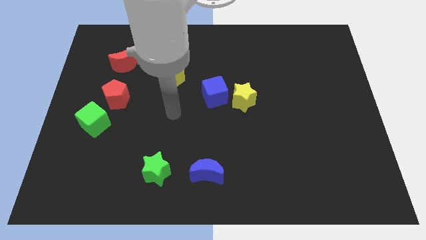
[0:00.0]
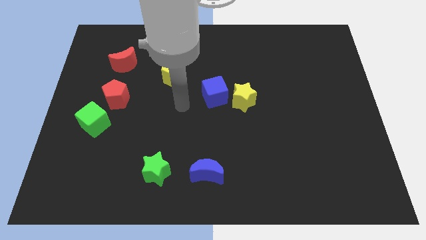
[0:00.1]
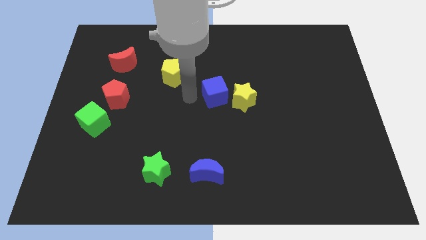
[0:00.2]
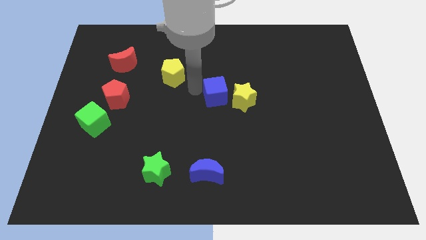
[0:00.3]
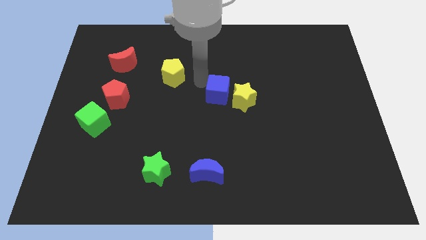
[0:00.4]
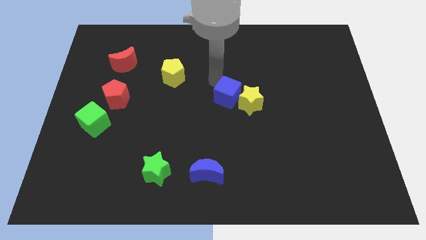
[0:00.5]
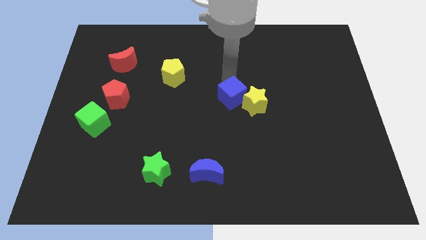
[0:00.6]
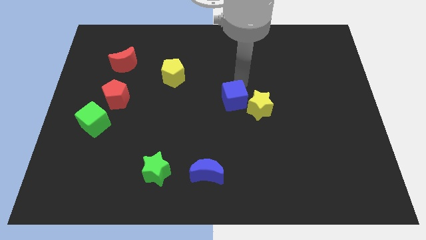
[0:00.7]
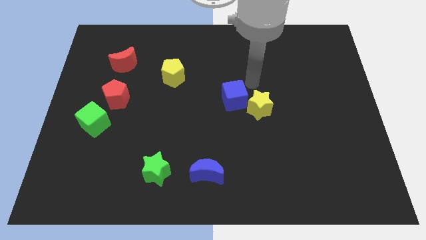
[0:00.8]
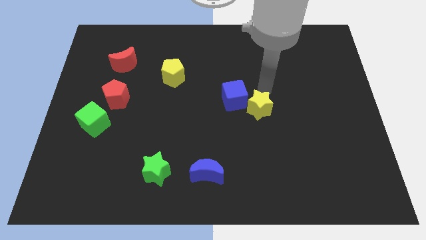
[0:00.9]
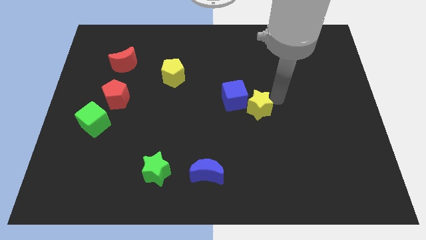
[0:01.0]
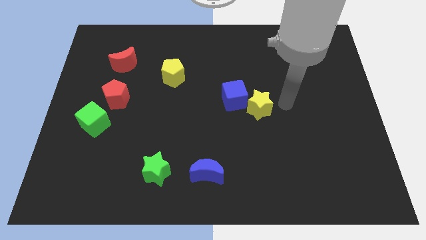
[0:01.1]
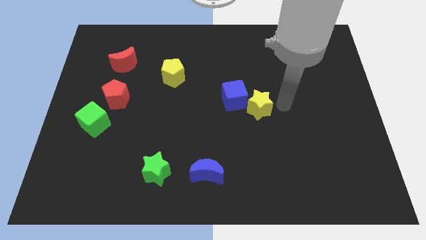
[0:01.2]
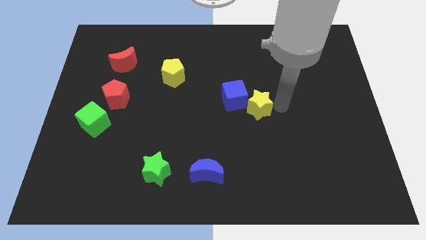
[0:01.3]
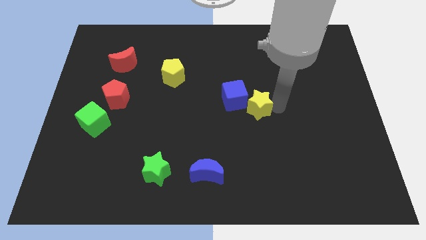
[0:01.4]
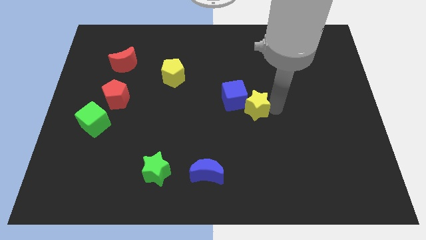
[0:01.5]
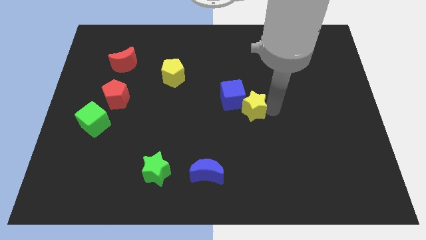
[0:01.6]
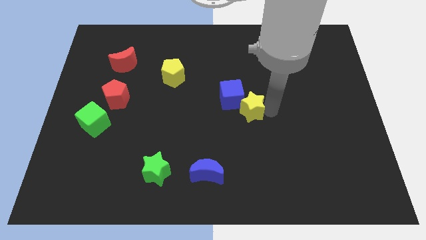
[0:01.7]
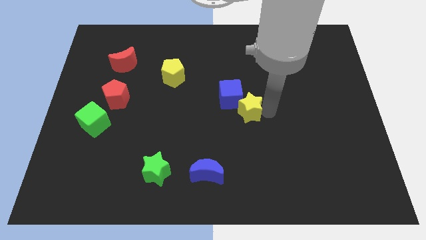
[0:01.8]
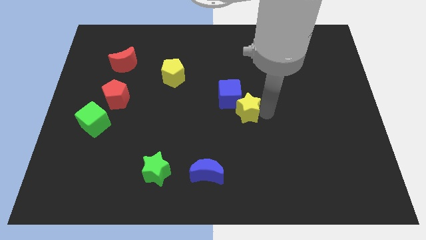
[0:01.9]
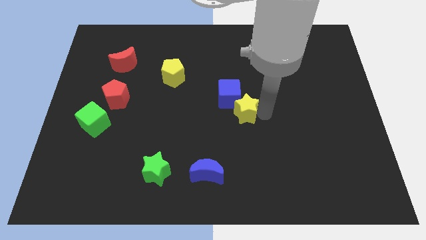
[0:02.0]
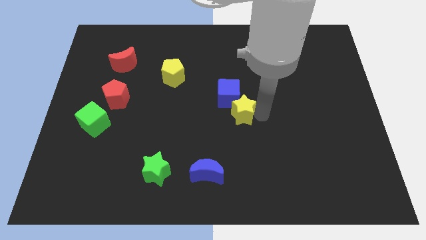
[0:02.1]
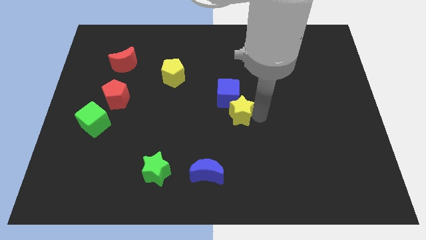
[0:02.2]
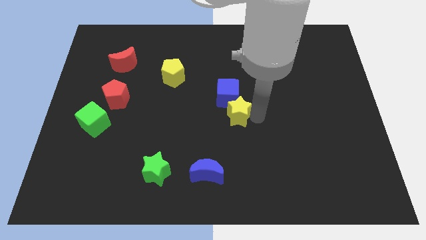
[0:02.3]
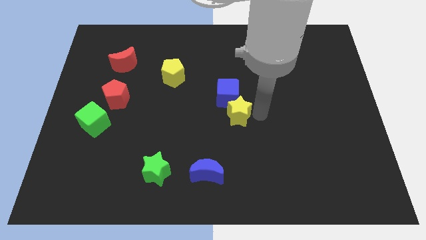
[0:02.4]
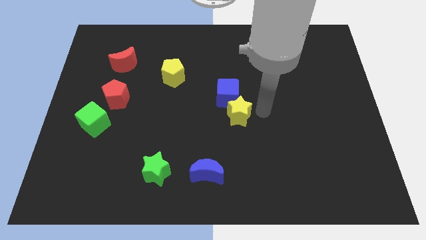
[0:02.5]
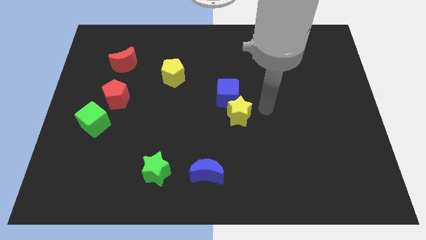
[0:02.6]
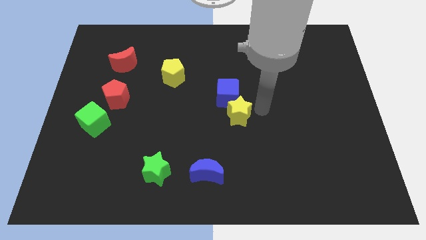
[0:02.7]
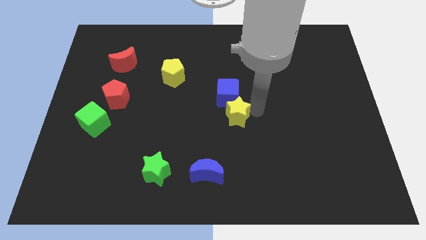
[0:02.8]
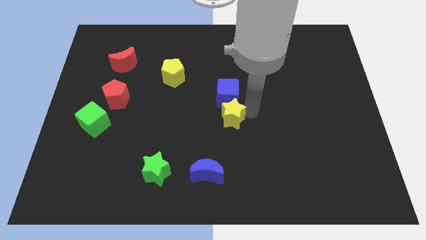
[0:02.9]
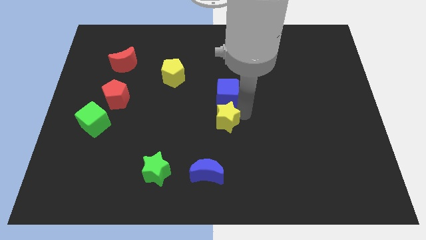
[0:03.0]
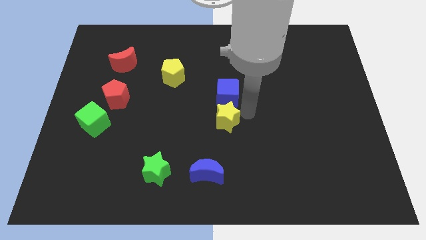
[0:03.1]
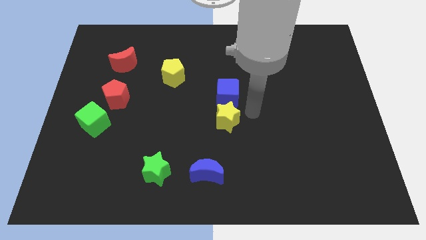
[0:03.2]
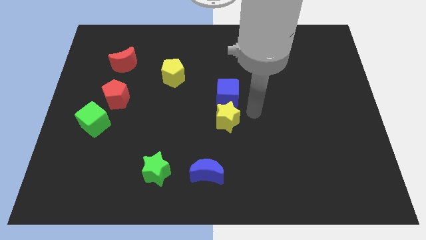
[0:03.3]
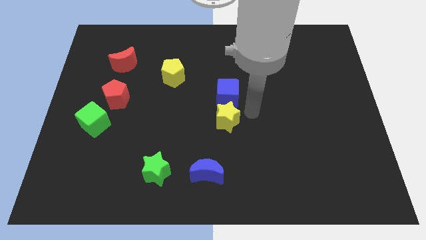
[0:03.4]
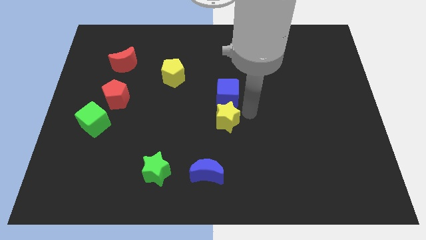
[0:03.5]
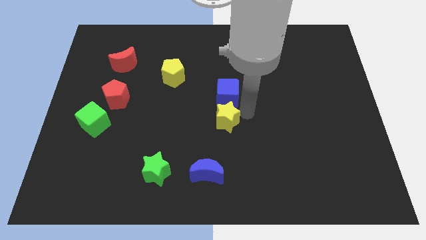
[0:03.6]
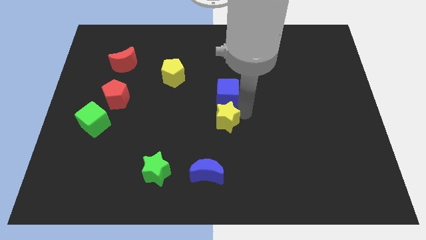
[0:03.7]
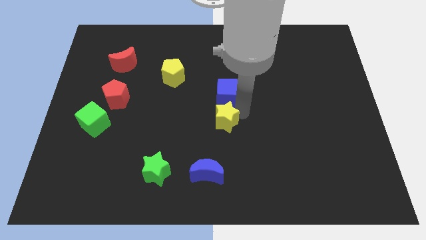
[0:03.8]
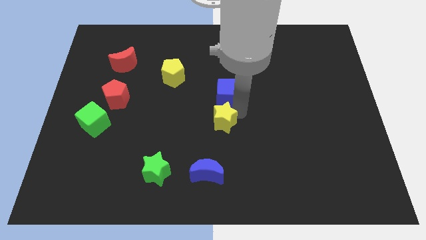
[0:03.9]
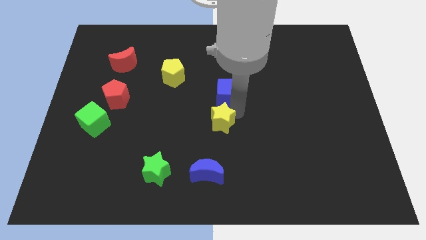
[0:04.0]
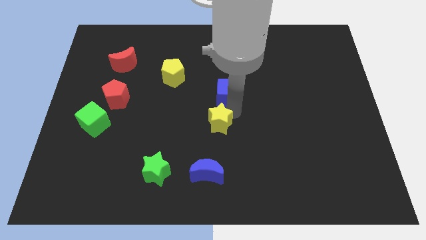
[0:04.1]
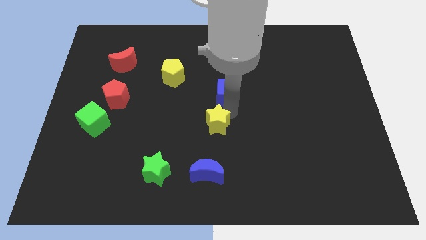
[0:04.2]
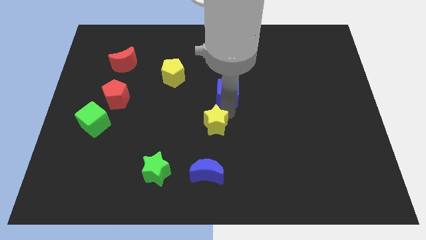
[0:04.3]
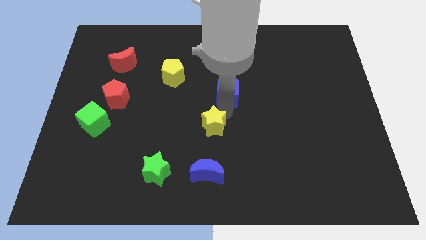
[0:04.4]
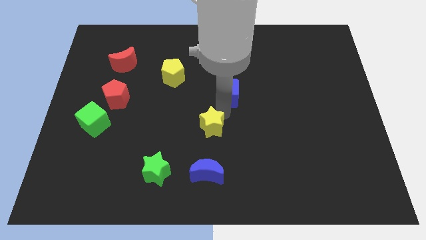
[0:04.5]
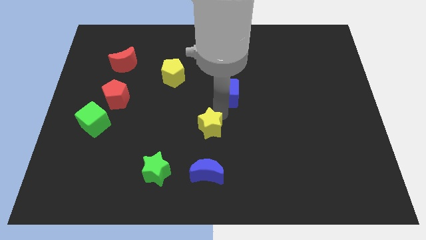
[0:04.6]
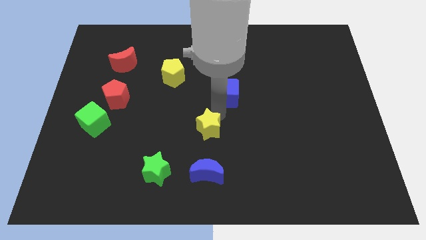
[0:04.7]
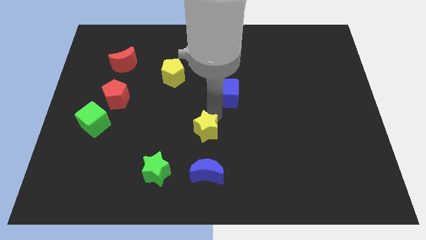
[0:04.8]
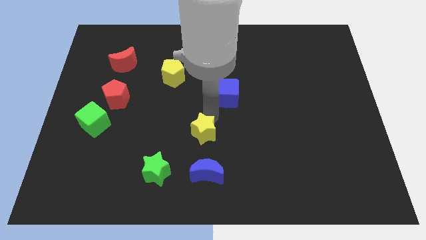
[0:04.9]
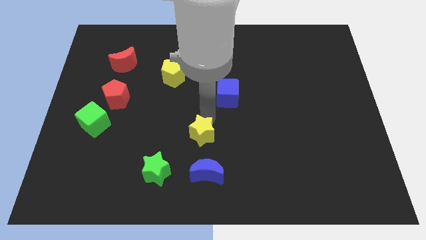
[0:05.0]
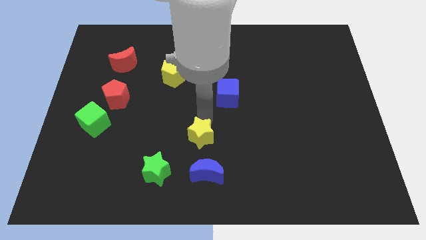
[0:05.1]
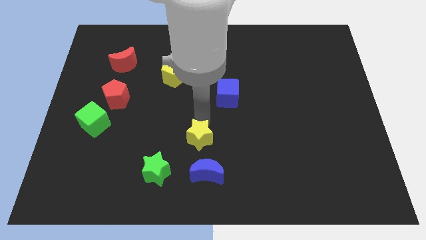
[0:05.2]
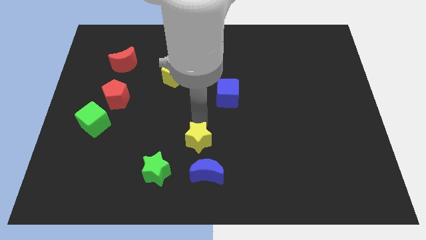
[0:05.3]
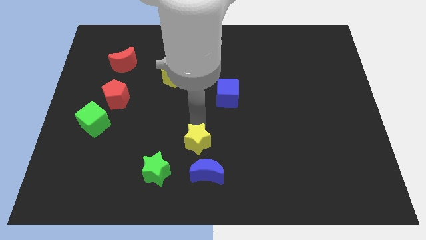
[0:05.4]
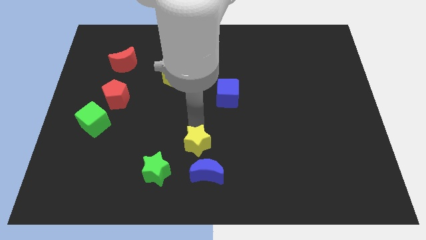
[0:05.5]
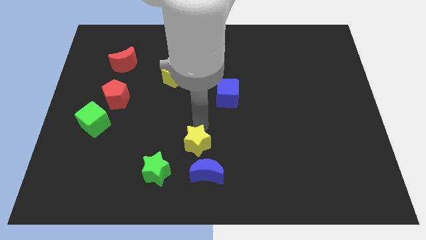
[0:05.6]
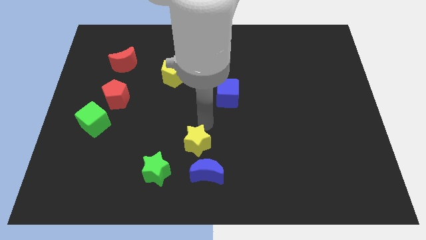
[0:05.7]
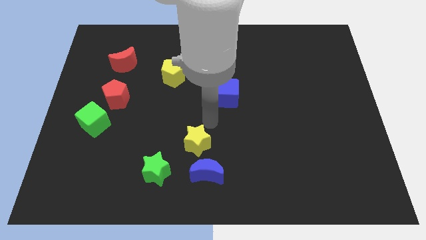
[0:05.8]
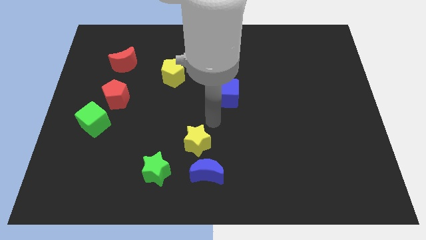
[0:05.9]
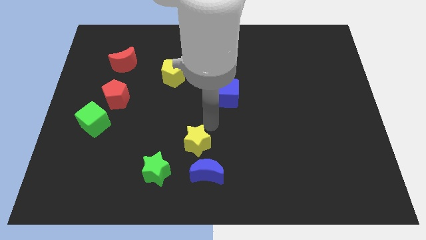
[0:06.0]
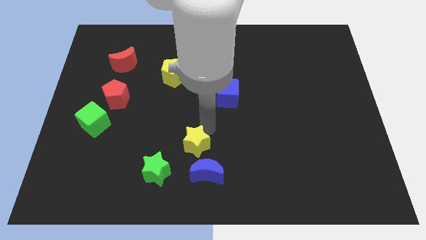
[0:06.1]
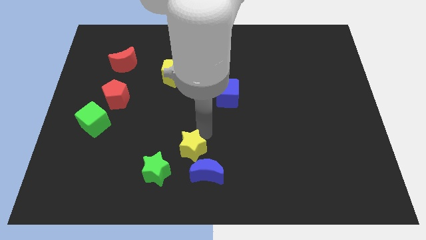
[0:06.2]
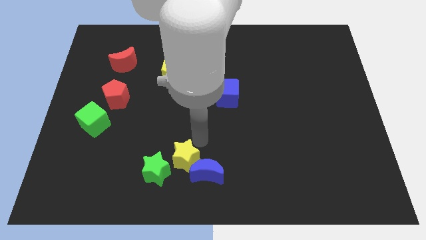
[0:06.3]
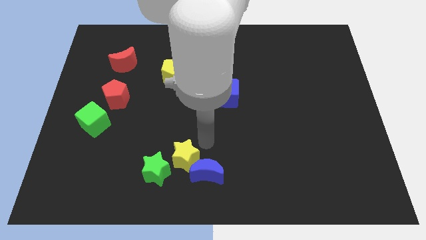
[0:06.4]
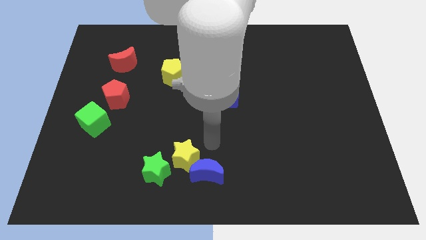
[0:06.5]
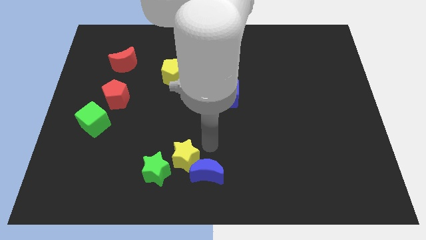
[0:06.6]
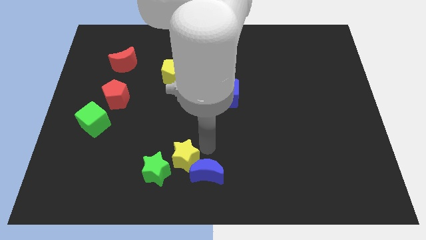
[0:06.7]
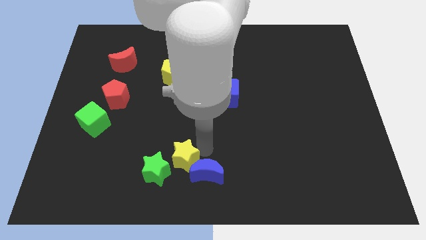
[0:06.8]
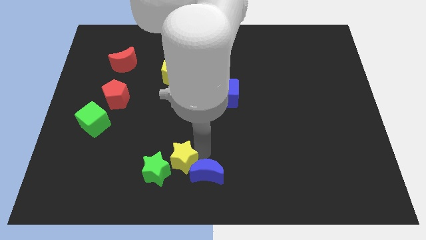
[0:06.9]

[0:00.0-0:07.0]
put the yellow star close to the green star

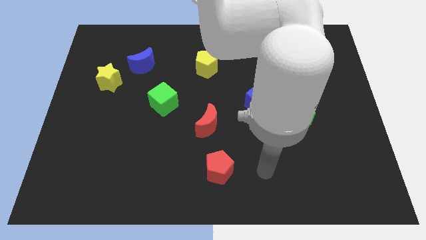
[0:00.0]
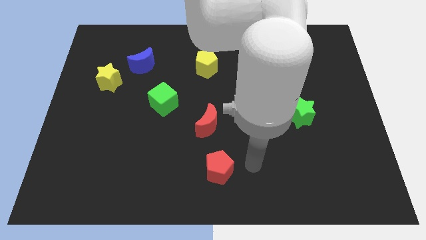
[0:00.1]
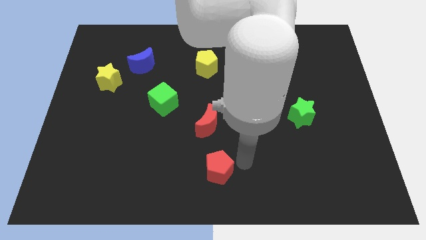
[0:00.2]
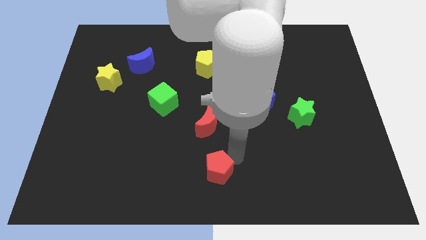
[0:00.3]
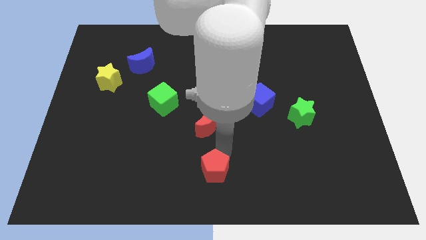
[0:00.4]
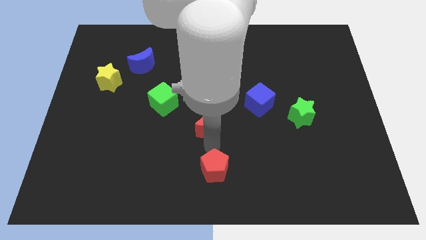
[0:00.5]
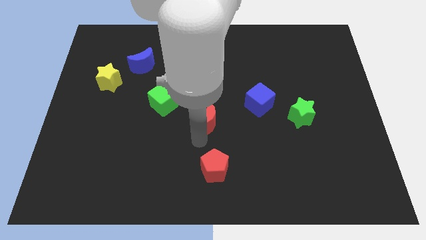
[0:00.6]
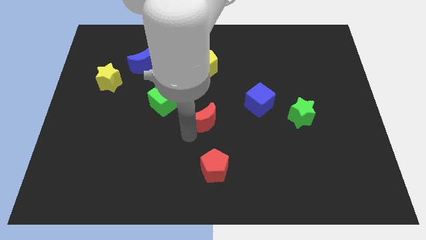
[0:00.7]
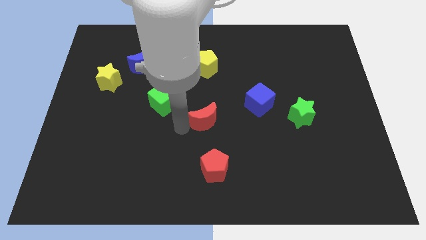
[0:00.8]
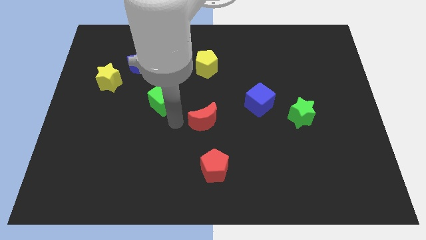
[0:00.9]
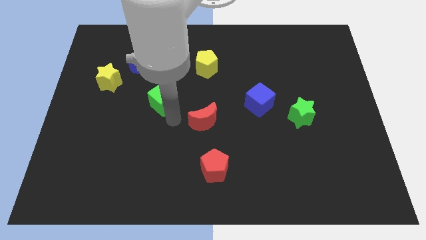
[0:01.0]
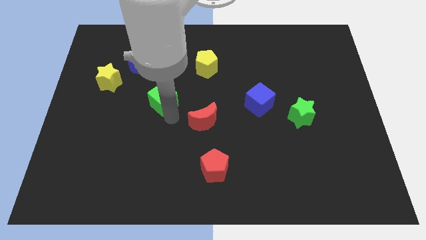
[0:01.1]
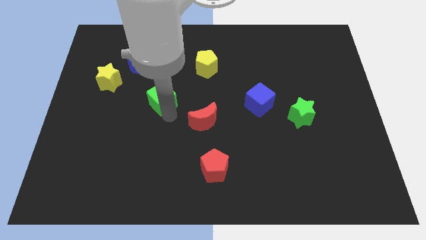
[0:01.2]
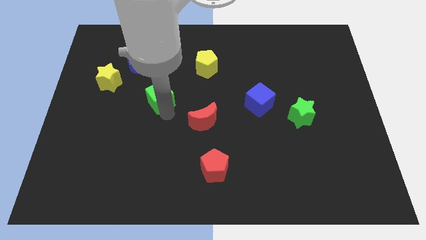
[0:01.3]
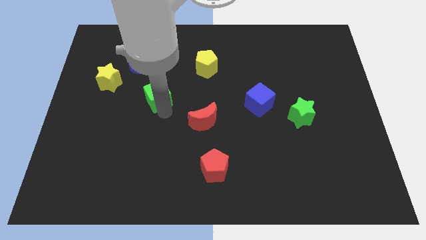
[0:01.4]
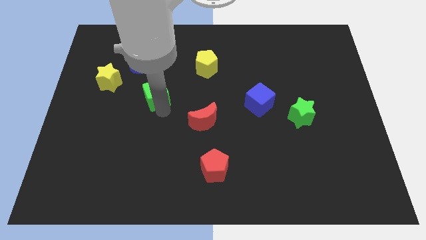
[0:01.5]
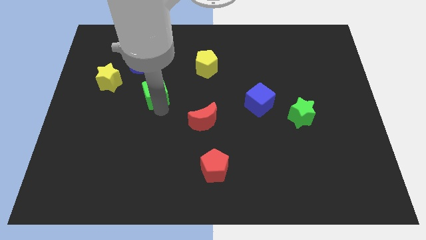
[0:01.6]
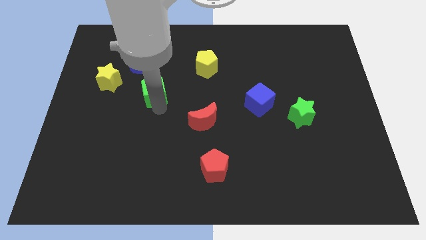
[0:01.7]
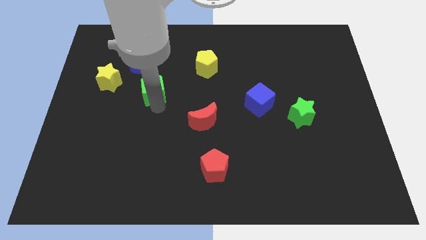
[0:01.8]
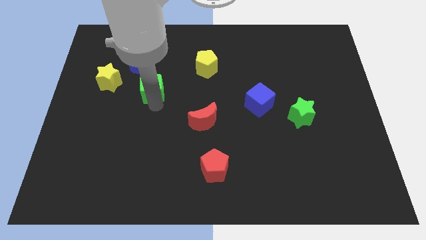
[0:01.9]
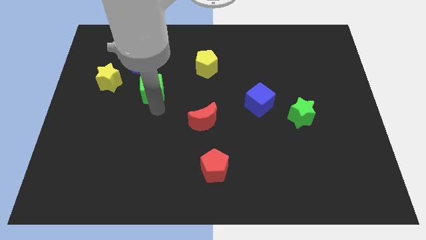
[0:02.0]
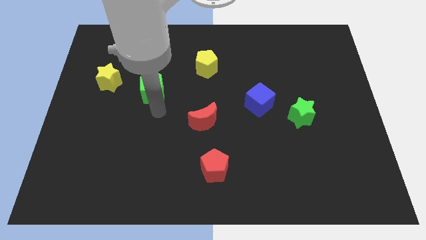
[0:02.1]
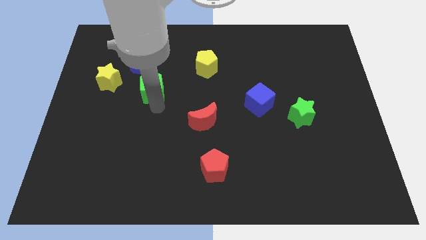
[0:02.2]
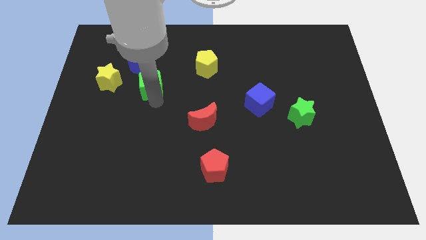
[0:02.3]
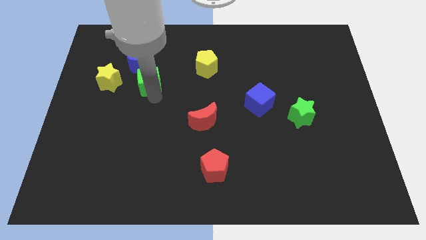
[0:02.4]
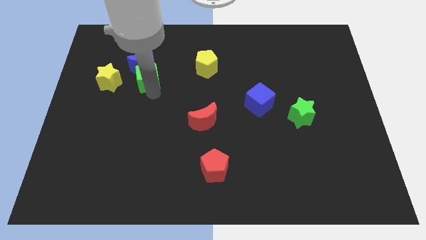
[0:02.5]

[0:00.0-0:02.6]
push the green cube to the blue moon
